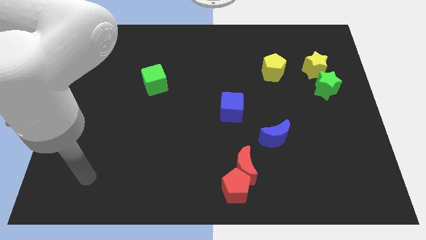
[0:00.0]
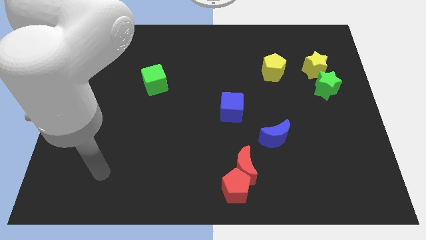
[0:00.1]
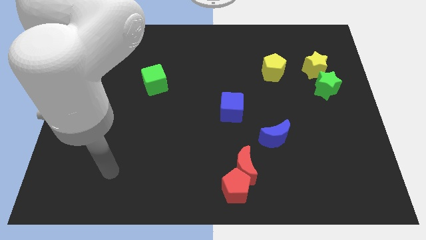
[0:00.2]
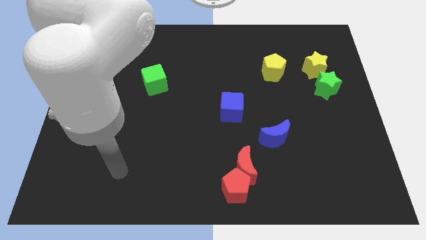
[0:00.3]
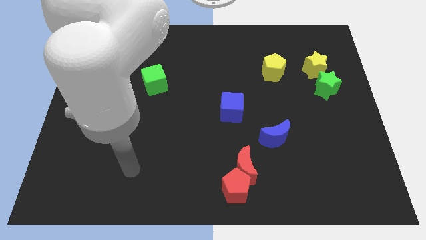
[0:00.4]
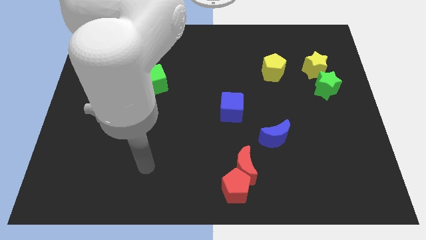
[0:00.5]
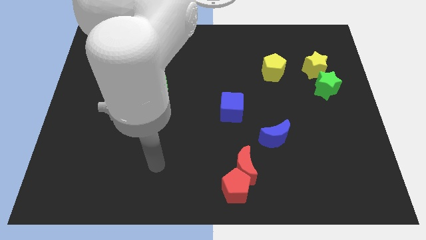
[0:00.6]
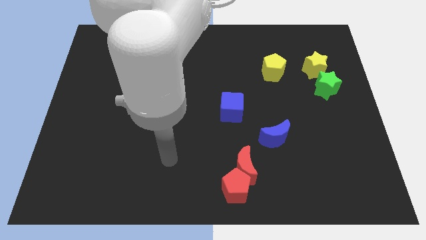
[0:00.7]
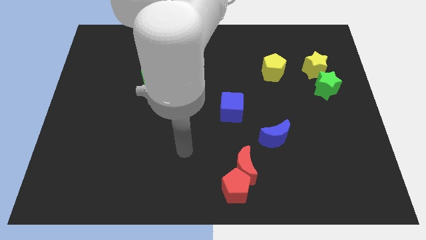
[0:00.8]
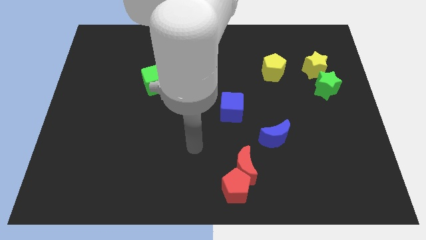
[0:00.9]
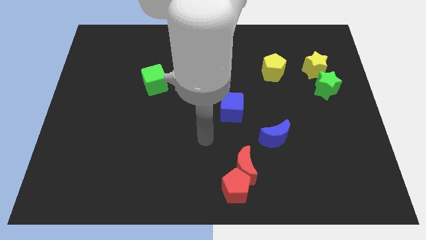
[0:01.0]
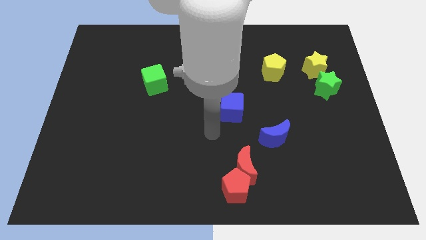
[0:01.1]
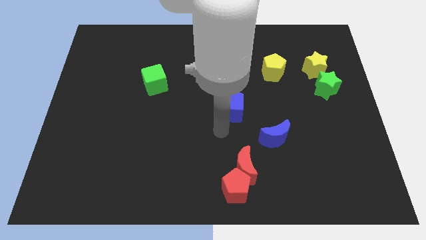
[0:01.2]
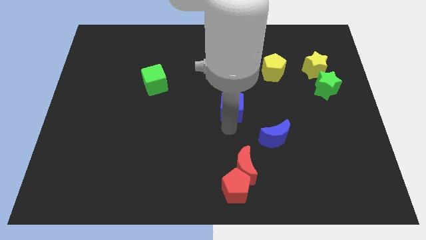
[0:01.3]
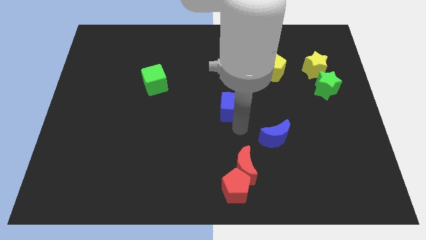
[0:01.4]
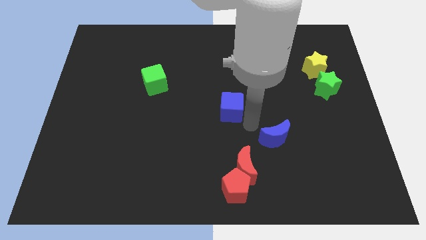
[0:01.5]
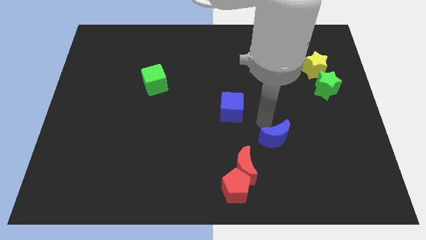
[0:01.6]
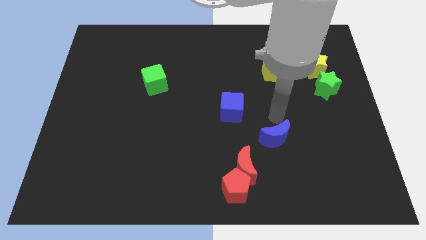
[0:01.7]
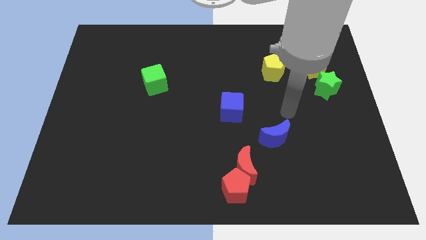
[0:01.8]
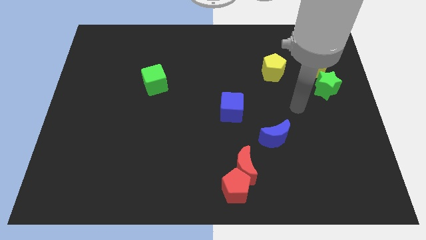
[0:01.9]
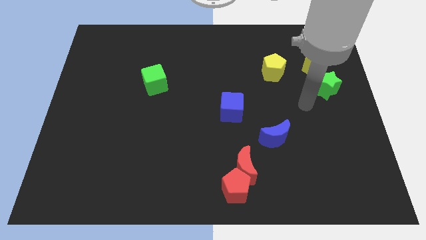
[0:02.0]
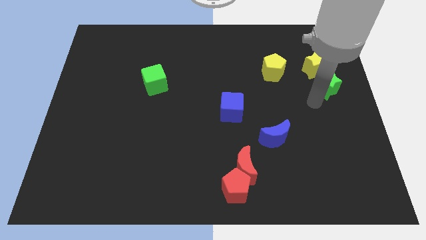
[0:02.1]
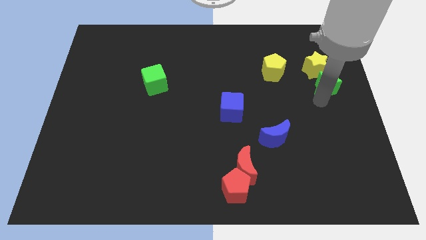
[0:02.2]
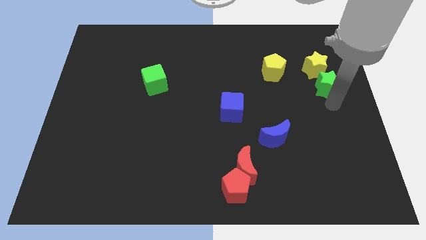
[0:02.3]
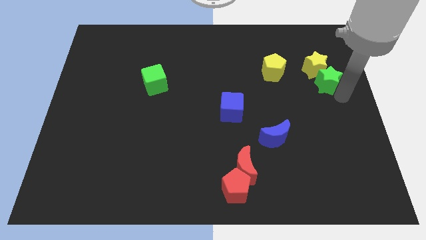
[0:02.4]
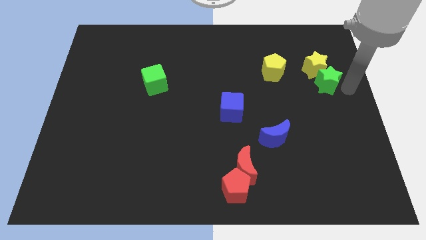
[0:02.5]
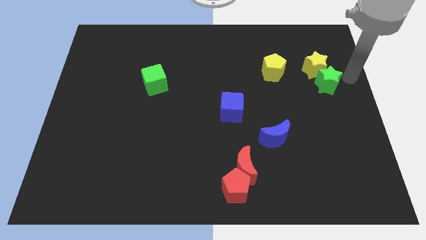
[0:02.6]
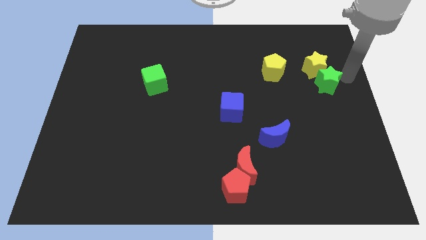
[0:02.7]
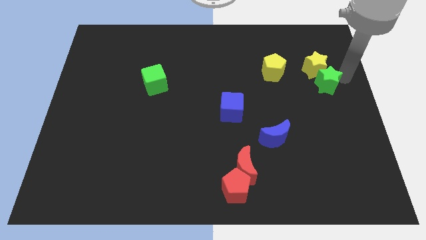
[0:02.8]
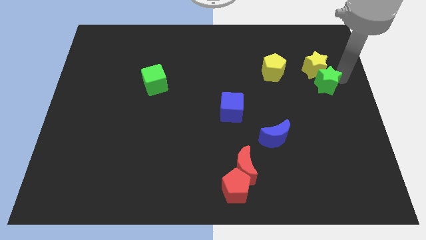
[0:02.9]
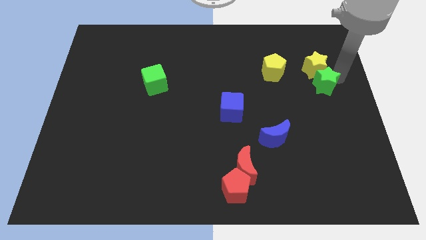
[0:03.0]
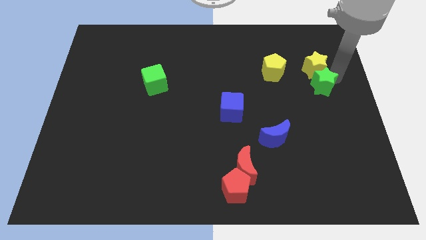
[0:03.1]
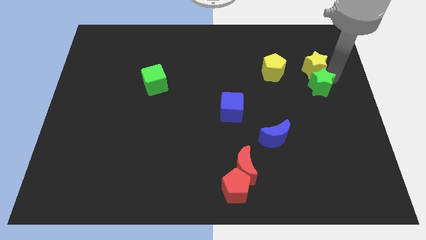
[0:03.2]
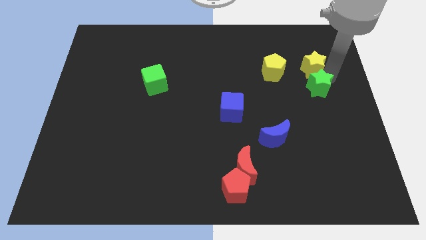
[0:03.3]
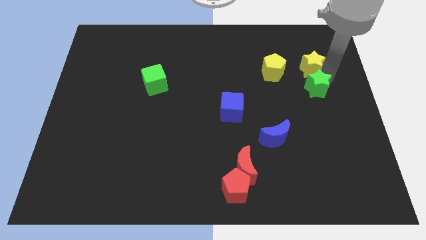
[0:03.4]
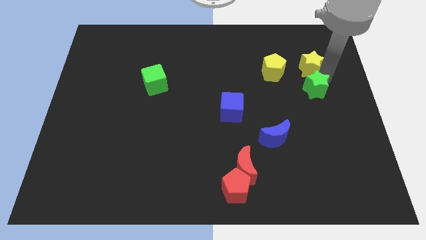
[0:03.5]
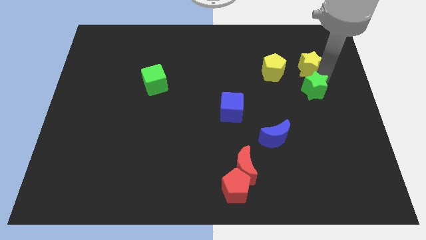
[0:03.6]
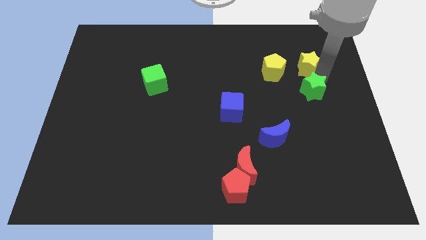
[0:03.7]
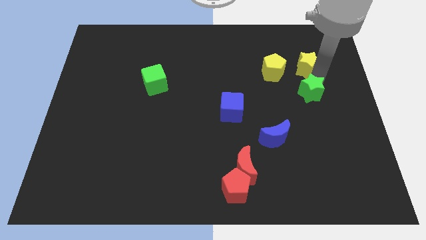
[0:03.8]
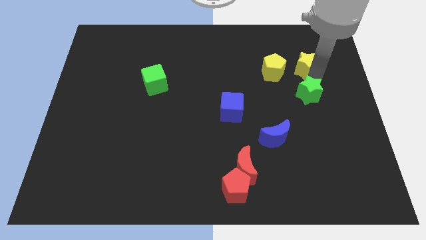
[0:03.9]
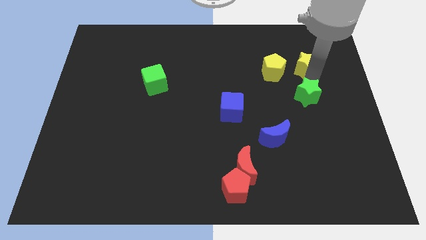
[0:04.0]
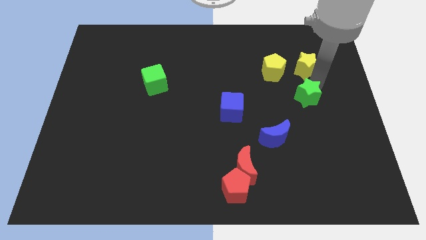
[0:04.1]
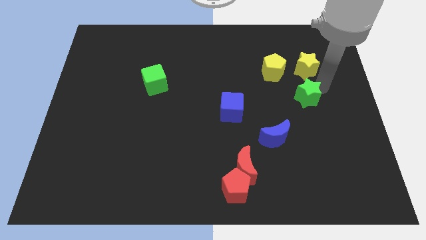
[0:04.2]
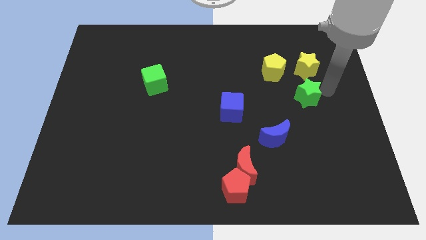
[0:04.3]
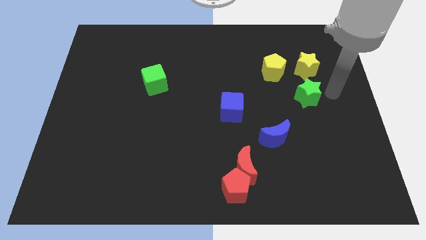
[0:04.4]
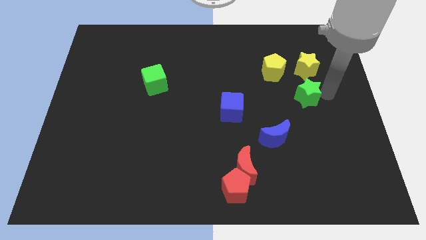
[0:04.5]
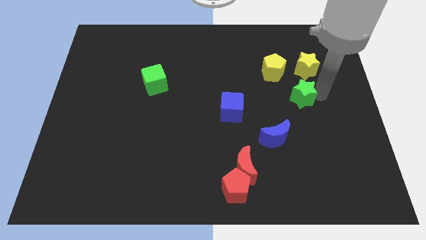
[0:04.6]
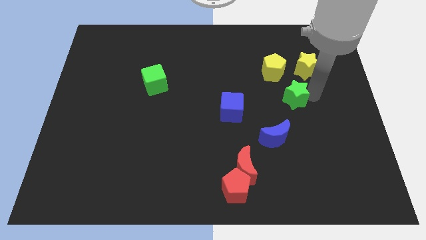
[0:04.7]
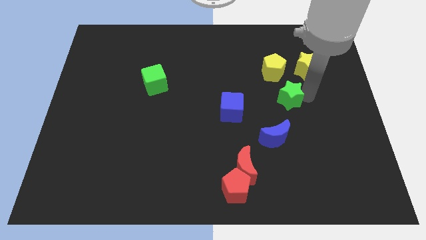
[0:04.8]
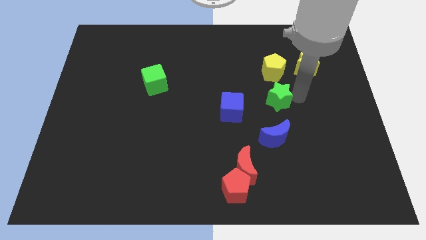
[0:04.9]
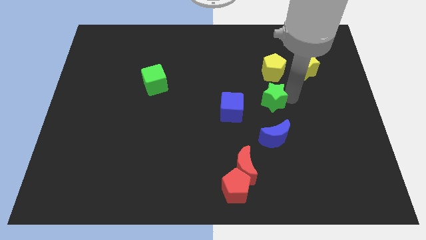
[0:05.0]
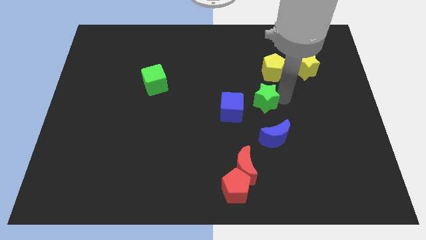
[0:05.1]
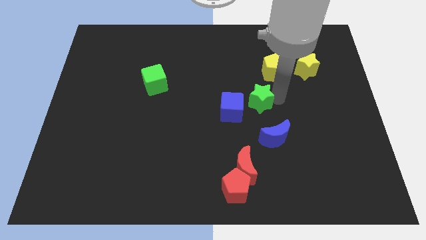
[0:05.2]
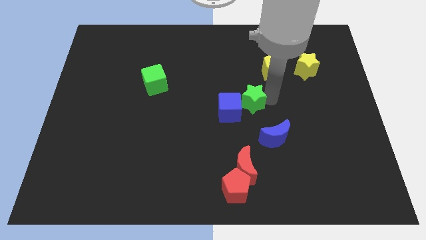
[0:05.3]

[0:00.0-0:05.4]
slide the green star to the blue cube

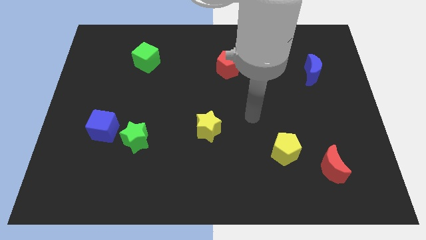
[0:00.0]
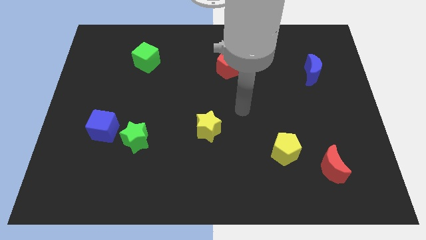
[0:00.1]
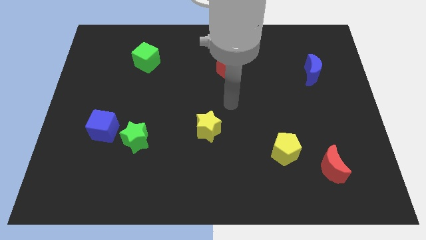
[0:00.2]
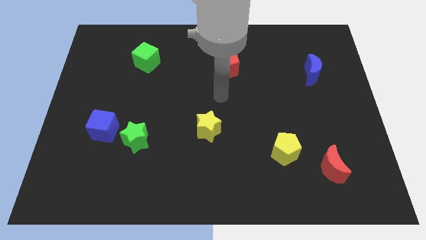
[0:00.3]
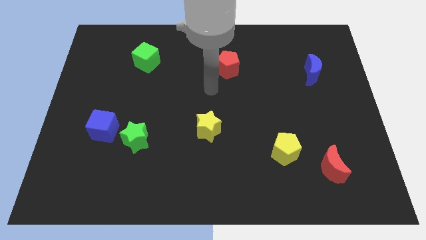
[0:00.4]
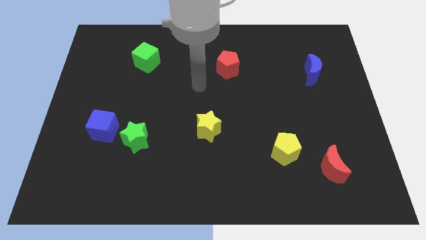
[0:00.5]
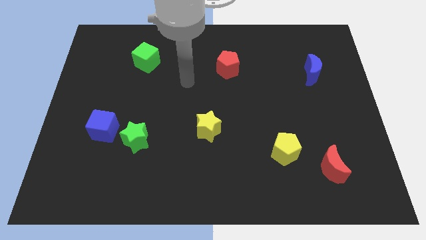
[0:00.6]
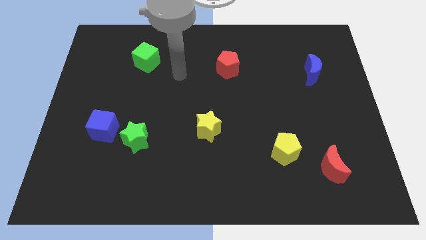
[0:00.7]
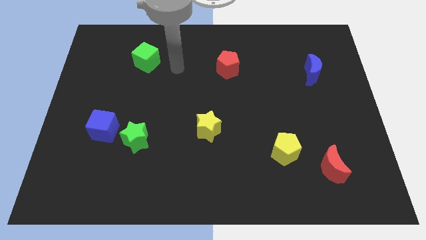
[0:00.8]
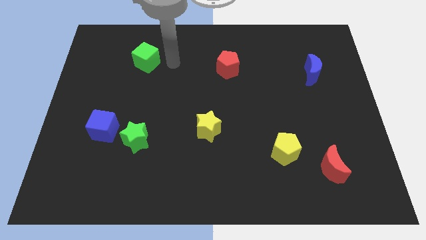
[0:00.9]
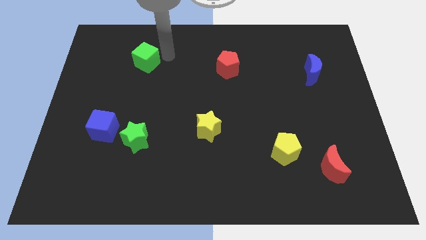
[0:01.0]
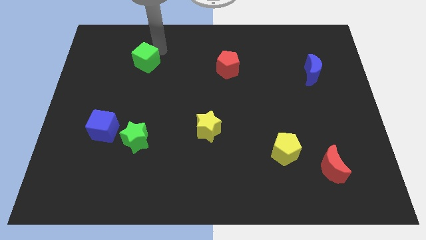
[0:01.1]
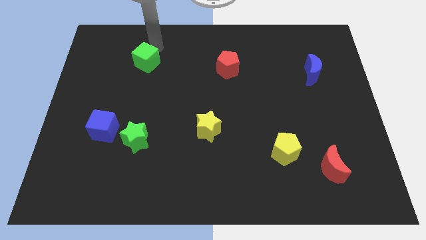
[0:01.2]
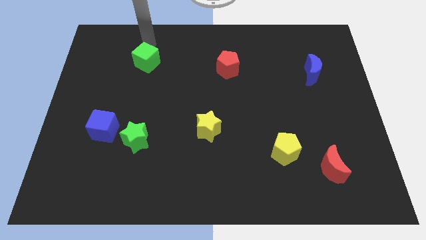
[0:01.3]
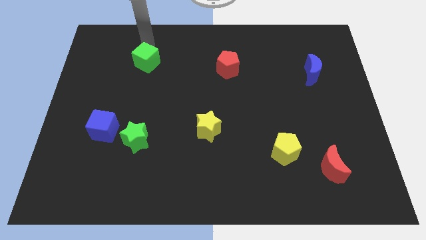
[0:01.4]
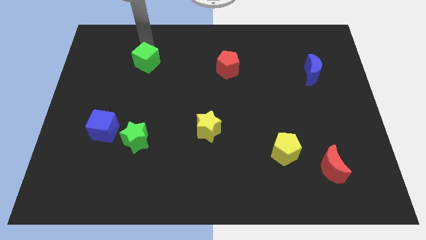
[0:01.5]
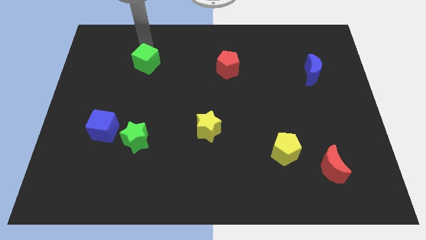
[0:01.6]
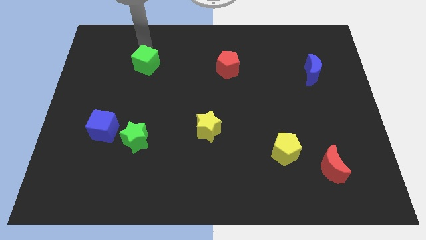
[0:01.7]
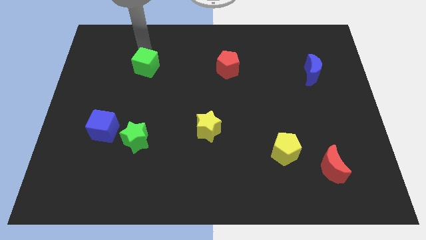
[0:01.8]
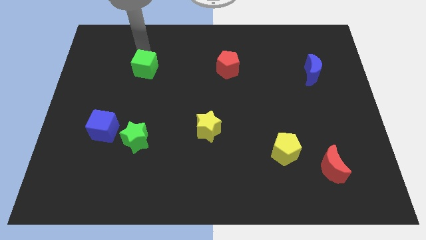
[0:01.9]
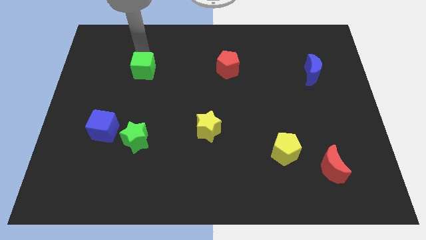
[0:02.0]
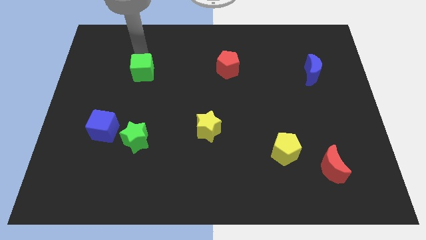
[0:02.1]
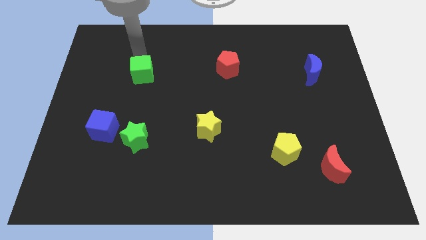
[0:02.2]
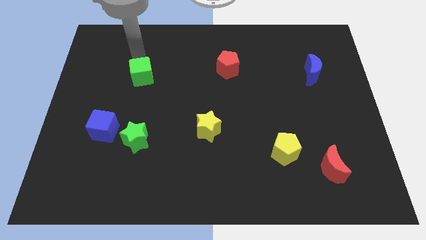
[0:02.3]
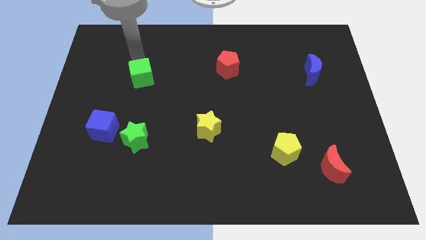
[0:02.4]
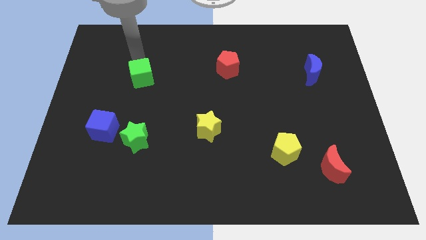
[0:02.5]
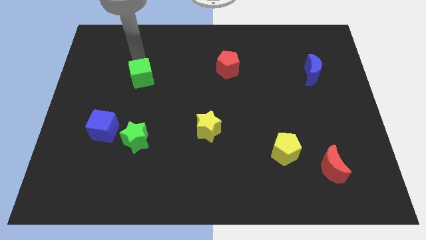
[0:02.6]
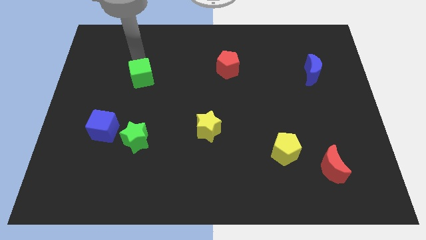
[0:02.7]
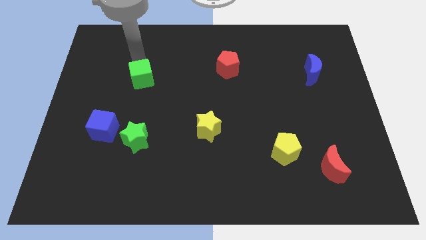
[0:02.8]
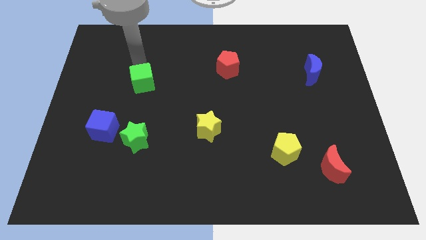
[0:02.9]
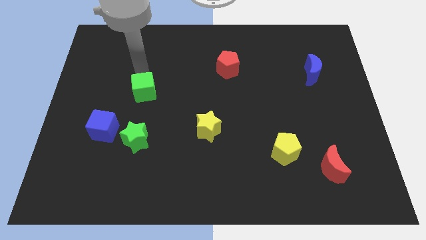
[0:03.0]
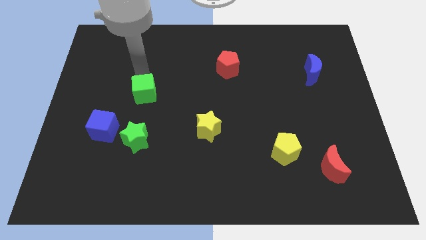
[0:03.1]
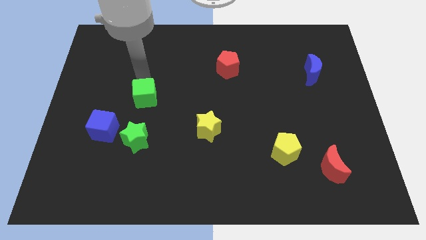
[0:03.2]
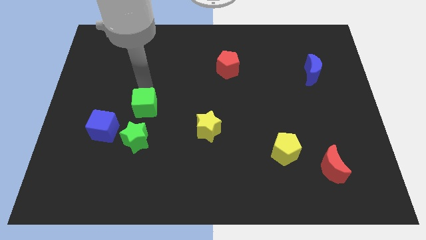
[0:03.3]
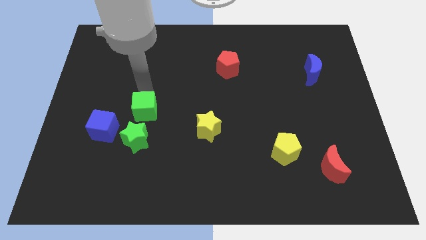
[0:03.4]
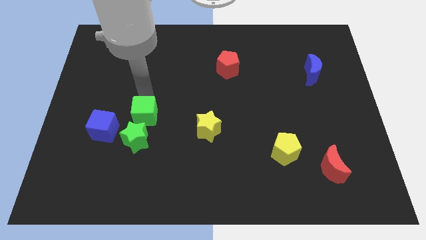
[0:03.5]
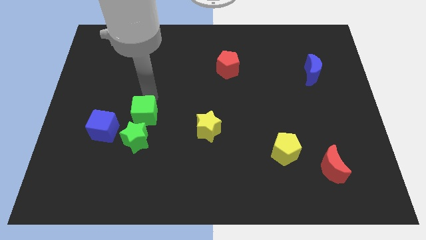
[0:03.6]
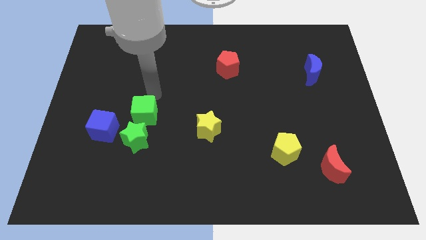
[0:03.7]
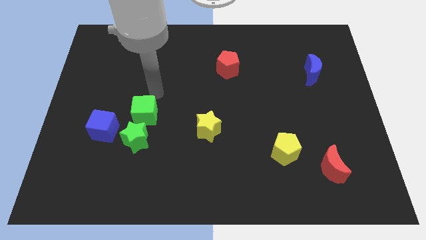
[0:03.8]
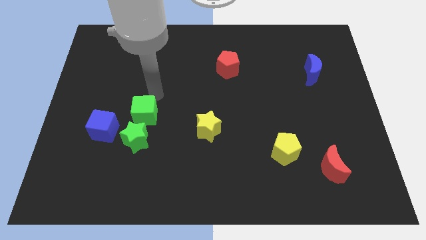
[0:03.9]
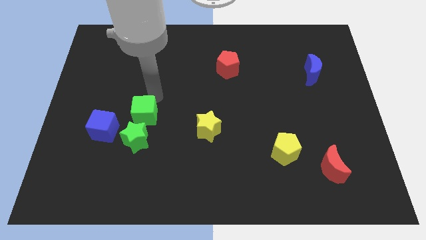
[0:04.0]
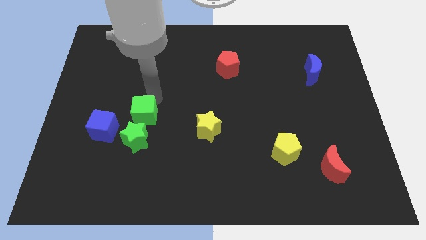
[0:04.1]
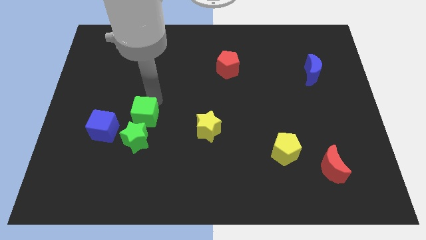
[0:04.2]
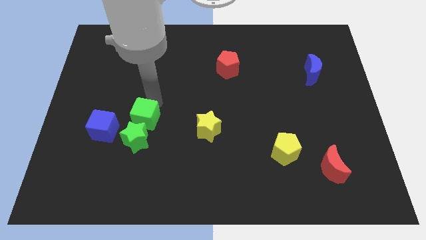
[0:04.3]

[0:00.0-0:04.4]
move the green cube close to the green star
